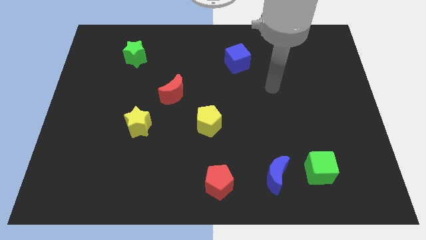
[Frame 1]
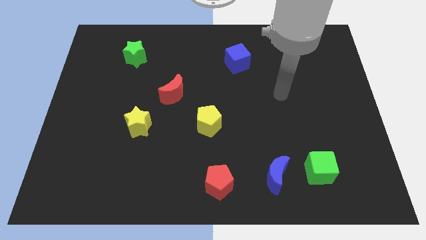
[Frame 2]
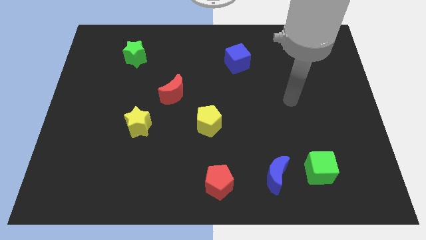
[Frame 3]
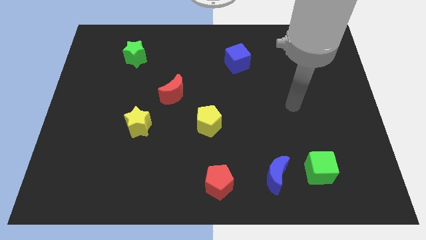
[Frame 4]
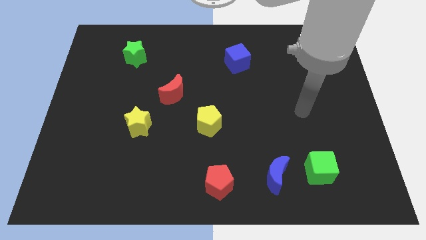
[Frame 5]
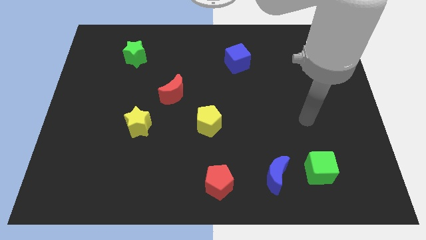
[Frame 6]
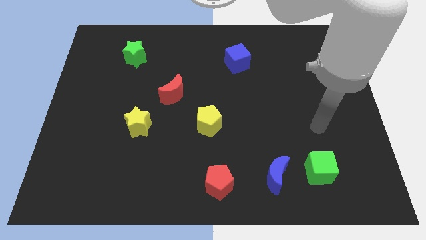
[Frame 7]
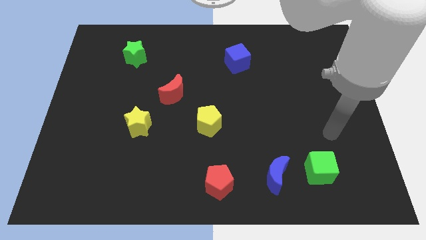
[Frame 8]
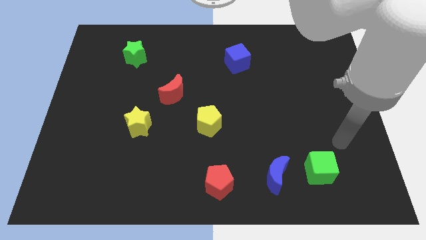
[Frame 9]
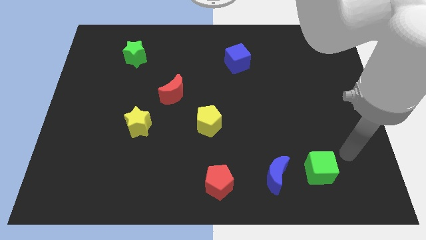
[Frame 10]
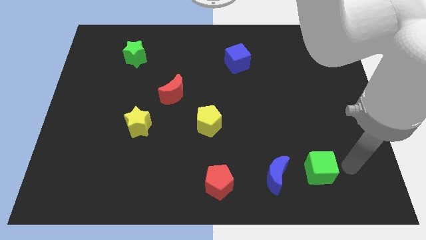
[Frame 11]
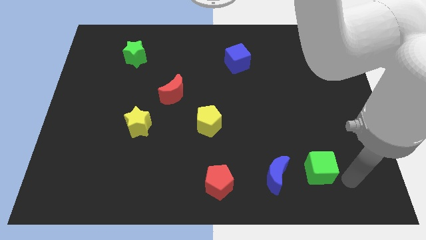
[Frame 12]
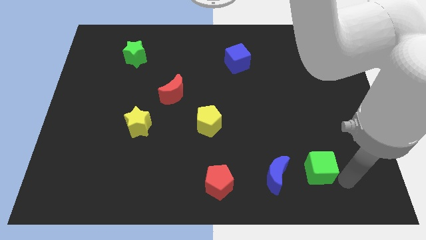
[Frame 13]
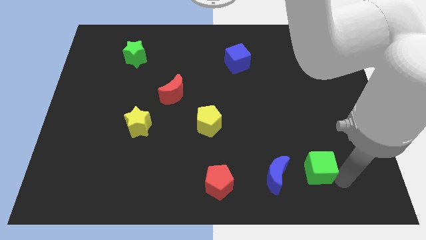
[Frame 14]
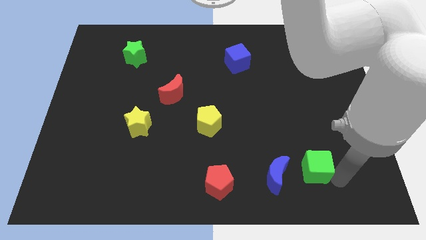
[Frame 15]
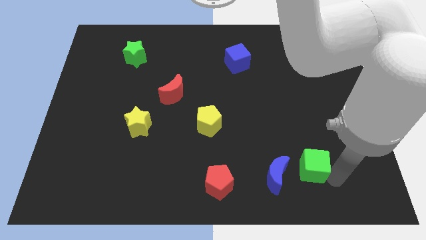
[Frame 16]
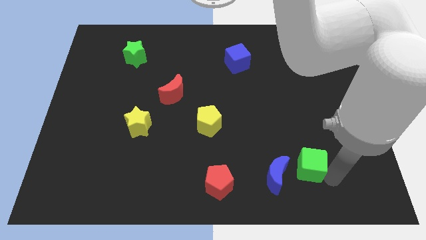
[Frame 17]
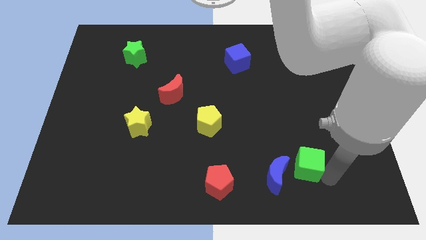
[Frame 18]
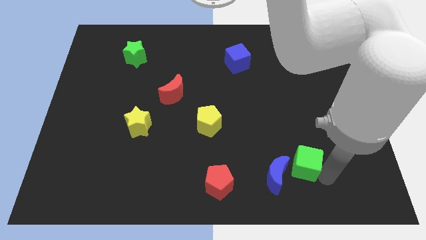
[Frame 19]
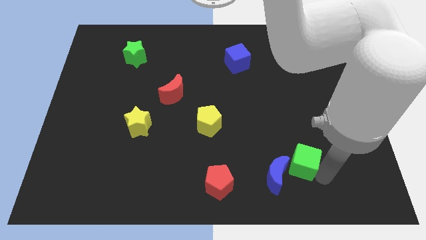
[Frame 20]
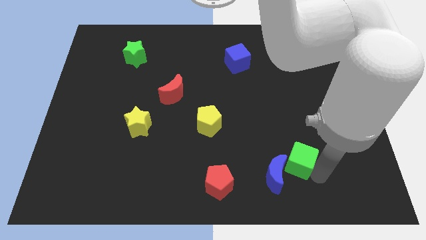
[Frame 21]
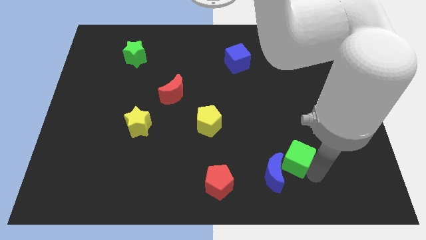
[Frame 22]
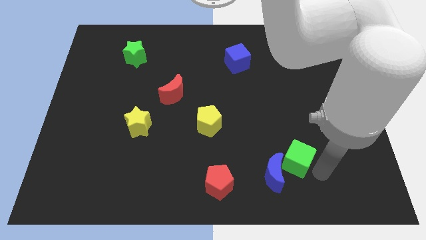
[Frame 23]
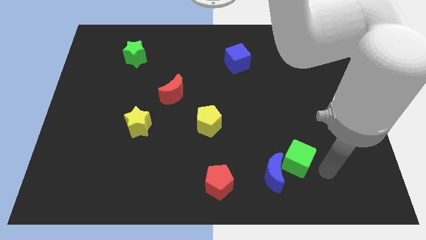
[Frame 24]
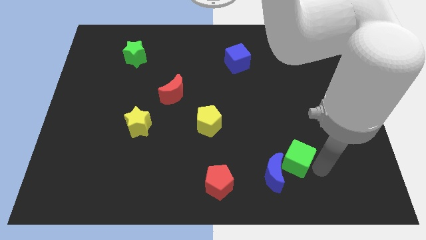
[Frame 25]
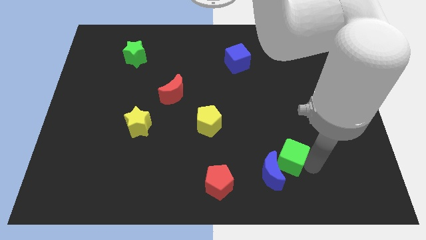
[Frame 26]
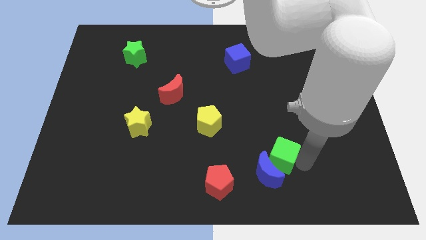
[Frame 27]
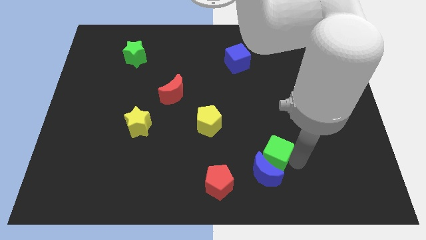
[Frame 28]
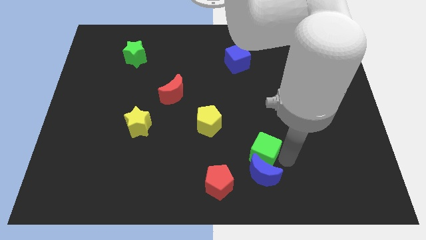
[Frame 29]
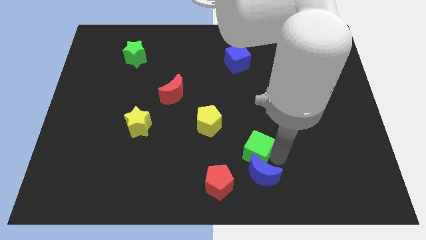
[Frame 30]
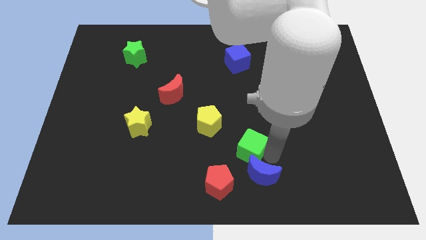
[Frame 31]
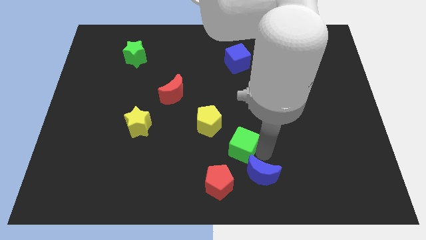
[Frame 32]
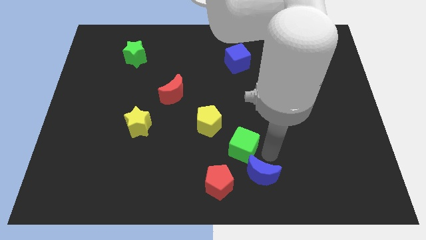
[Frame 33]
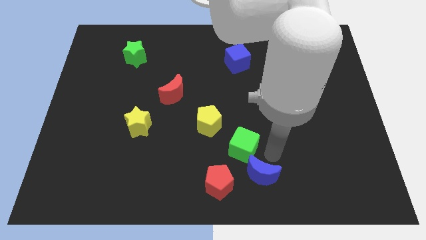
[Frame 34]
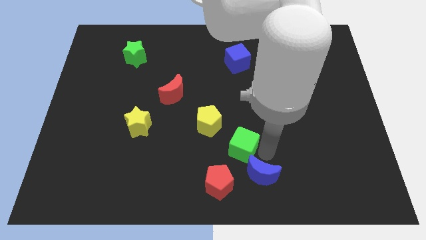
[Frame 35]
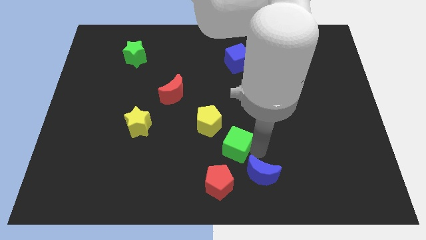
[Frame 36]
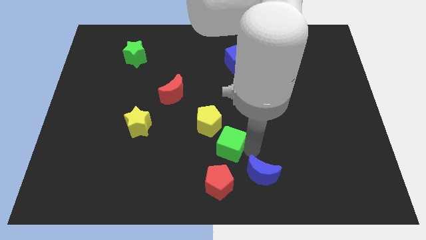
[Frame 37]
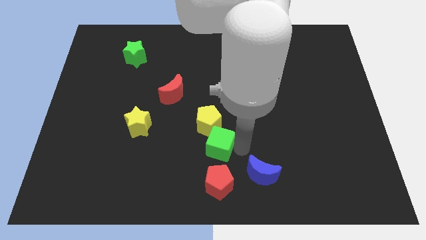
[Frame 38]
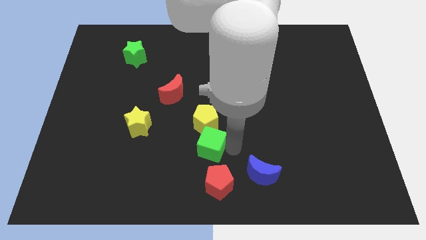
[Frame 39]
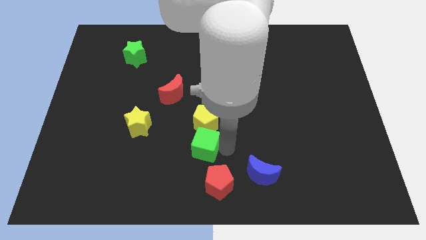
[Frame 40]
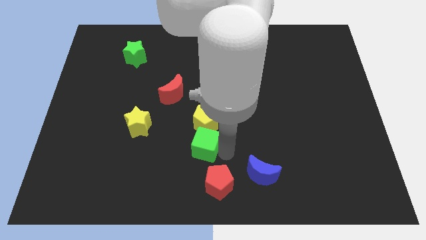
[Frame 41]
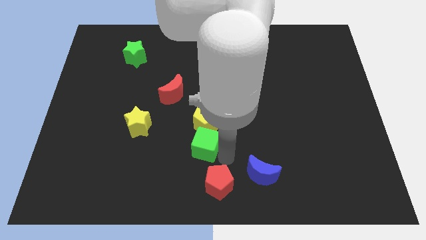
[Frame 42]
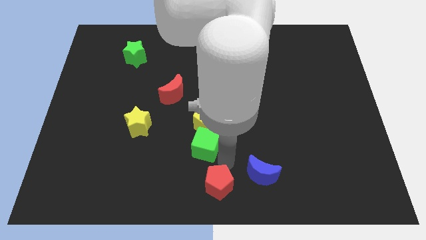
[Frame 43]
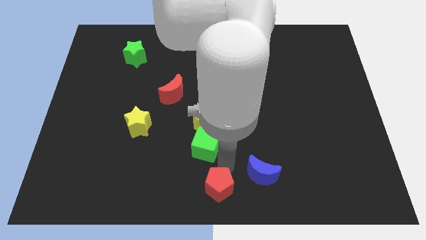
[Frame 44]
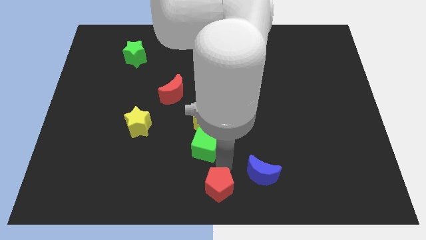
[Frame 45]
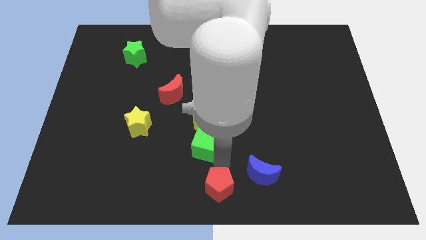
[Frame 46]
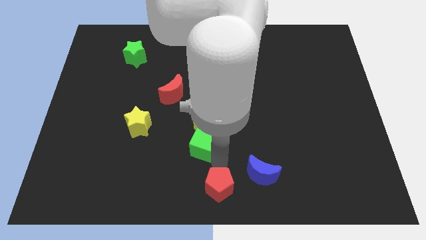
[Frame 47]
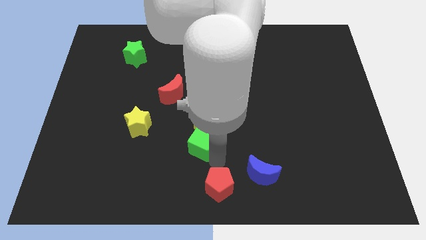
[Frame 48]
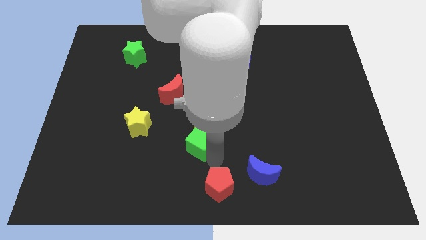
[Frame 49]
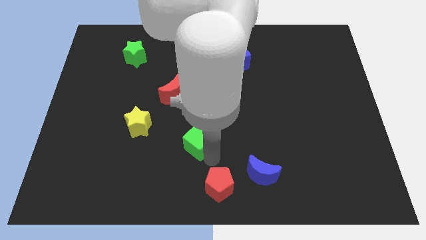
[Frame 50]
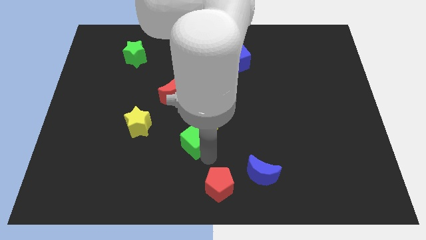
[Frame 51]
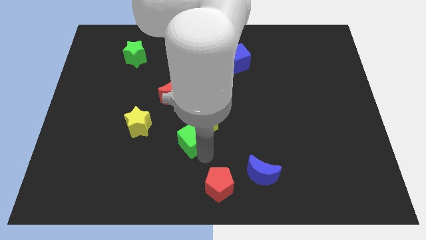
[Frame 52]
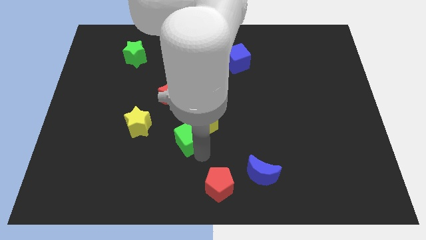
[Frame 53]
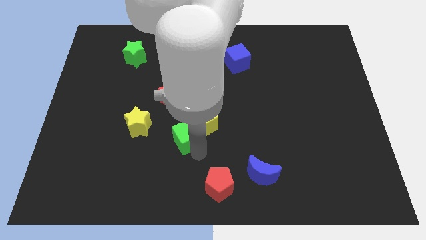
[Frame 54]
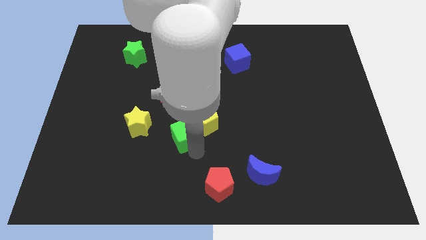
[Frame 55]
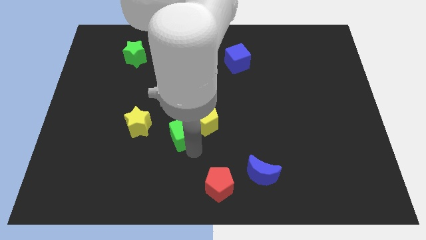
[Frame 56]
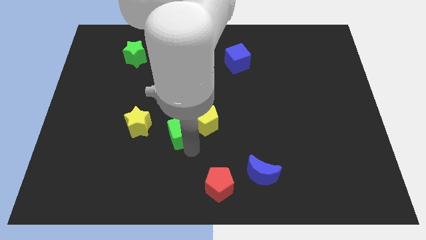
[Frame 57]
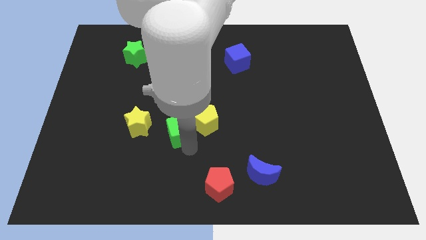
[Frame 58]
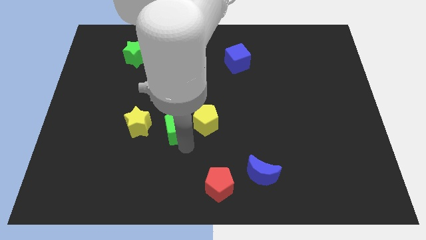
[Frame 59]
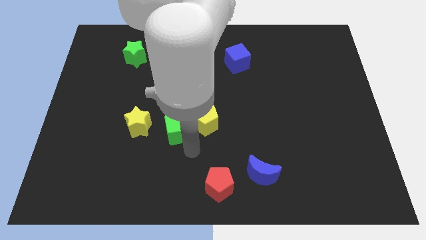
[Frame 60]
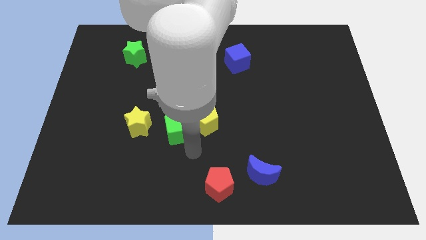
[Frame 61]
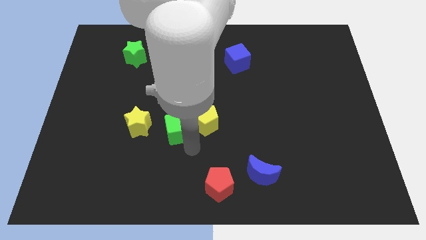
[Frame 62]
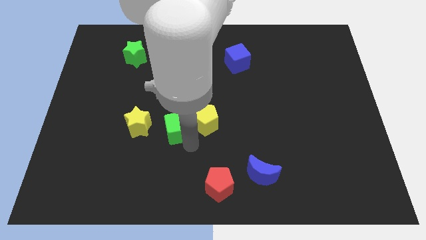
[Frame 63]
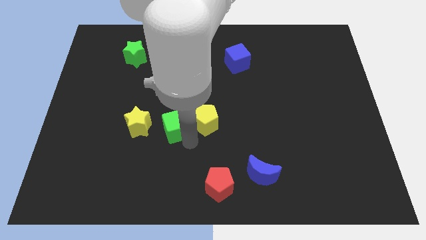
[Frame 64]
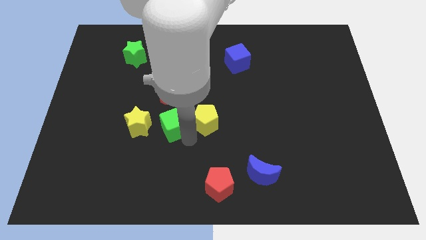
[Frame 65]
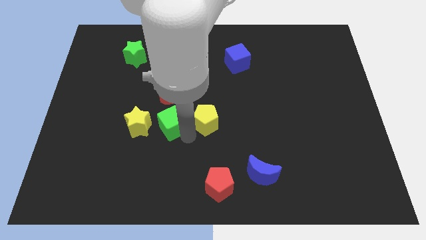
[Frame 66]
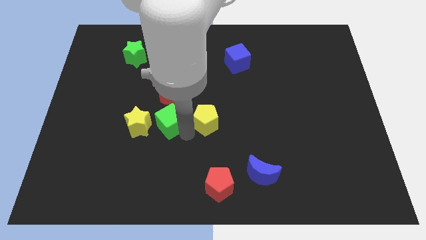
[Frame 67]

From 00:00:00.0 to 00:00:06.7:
slide the green cube to the top right of the yellow star

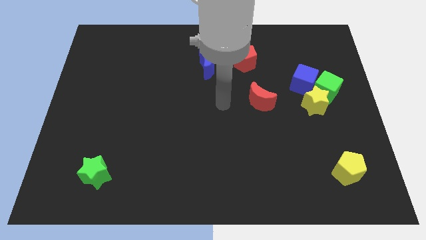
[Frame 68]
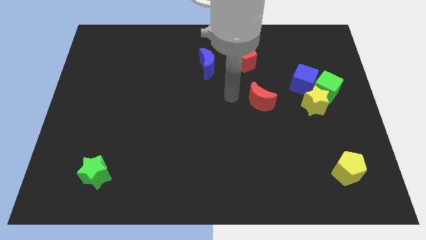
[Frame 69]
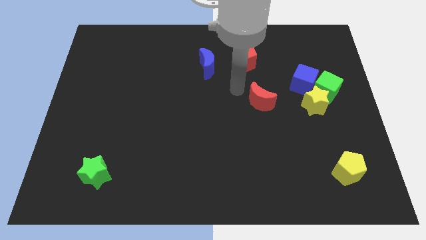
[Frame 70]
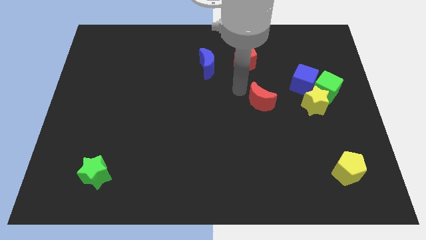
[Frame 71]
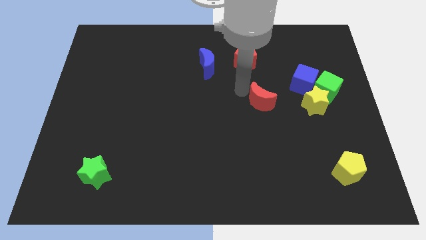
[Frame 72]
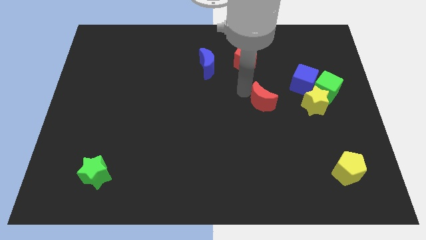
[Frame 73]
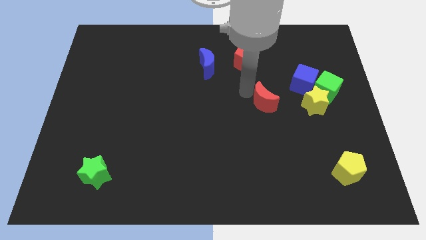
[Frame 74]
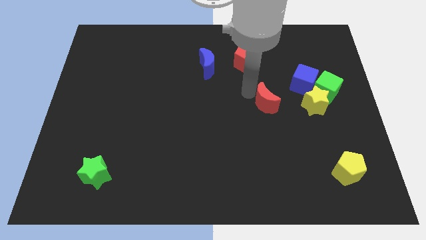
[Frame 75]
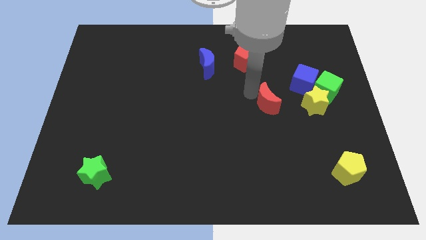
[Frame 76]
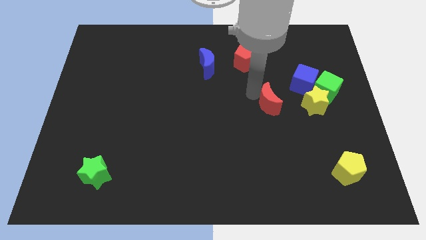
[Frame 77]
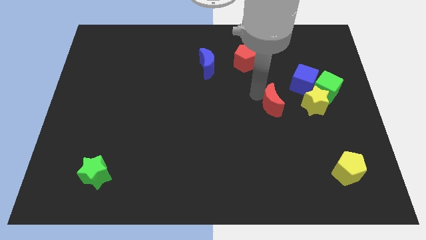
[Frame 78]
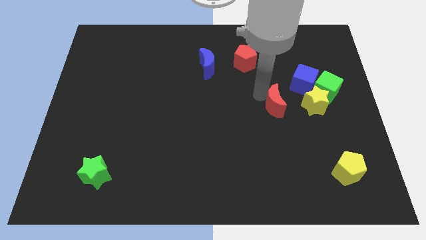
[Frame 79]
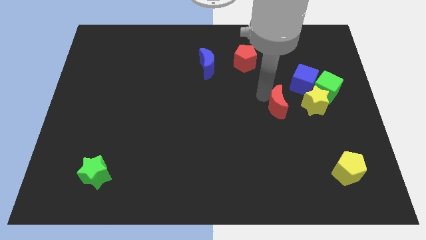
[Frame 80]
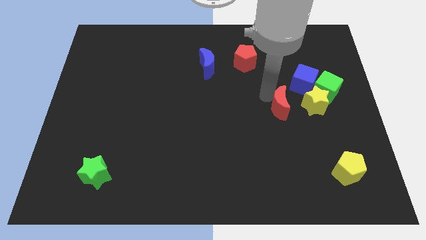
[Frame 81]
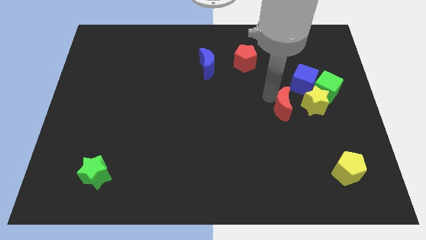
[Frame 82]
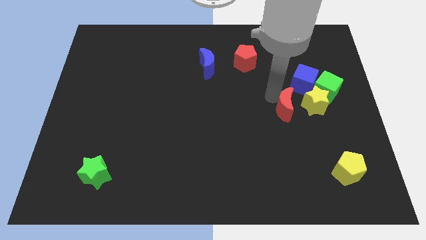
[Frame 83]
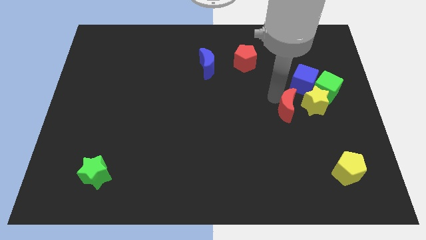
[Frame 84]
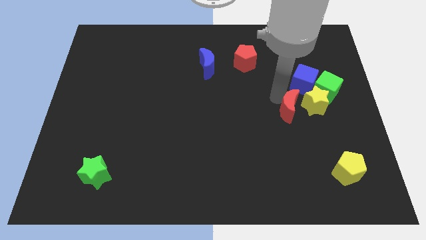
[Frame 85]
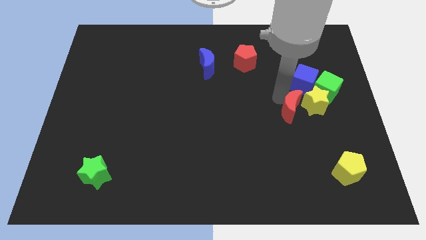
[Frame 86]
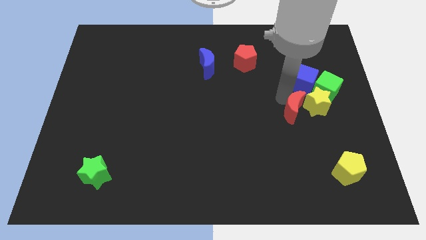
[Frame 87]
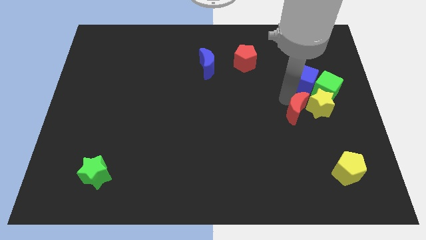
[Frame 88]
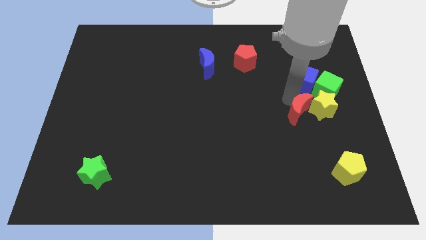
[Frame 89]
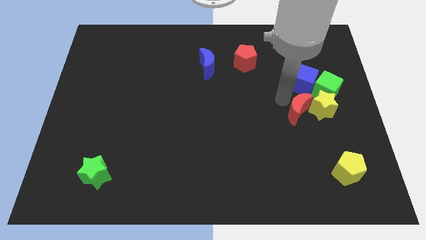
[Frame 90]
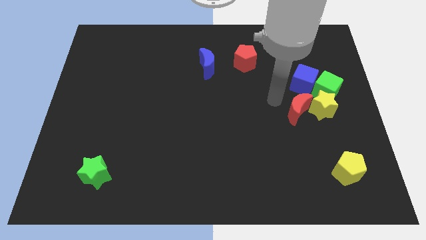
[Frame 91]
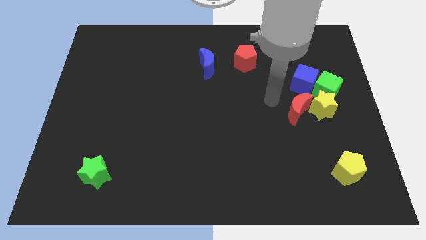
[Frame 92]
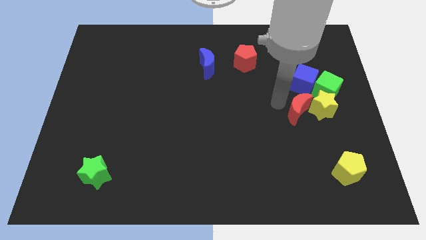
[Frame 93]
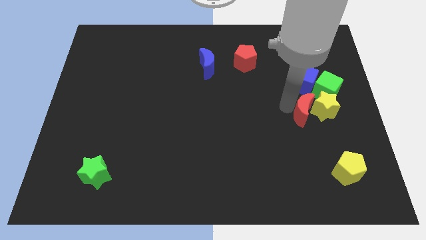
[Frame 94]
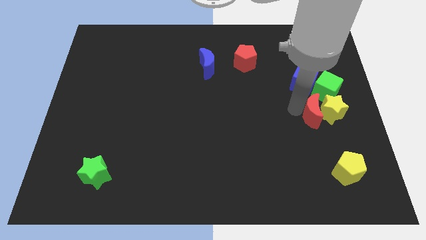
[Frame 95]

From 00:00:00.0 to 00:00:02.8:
move the red moon to the bottom side of the green cube
